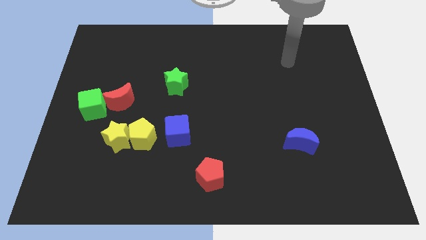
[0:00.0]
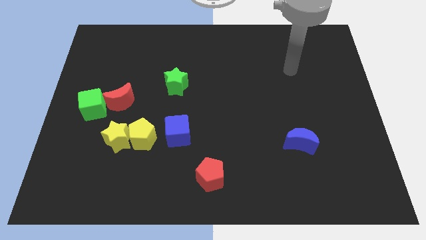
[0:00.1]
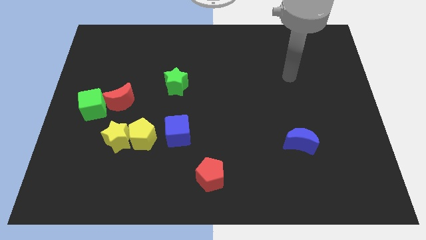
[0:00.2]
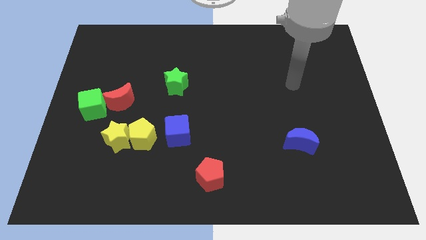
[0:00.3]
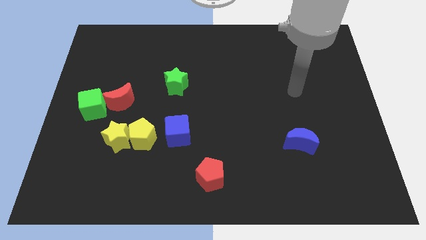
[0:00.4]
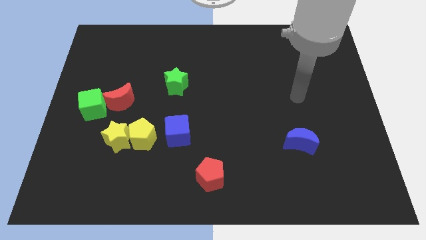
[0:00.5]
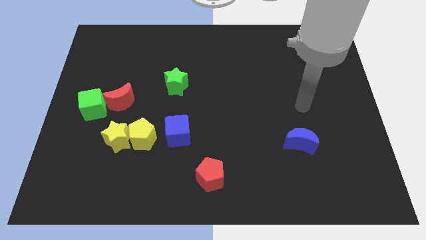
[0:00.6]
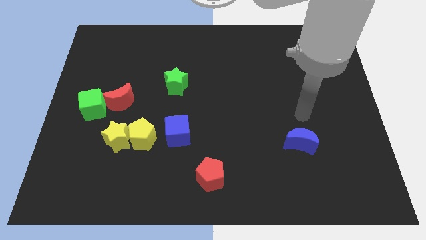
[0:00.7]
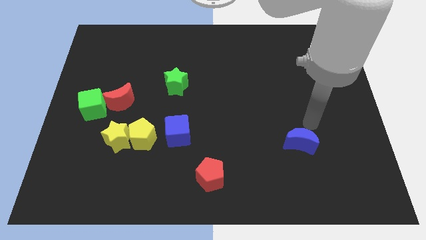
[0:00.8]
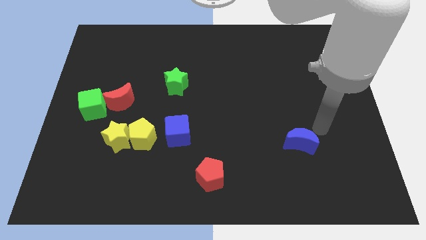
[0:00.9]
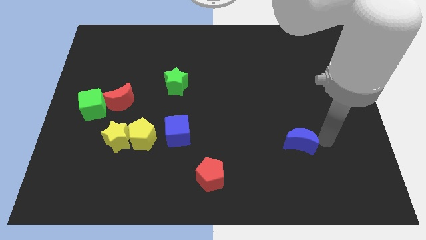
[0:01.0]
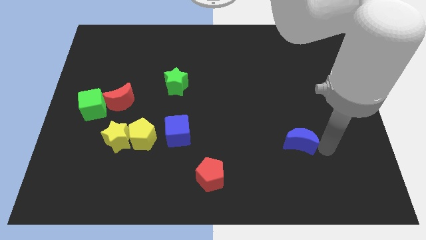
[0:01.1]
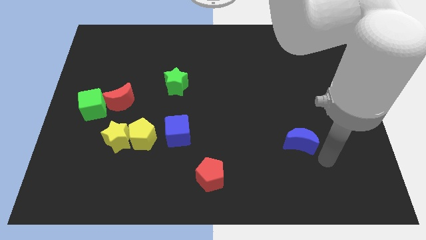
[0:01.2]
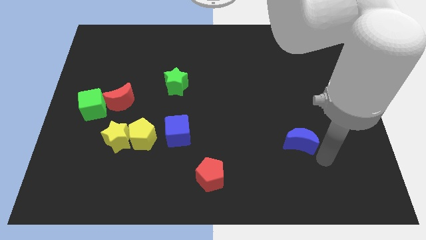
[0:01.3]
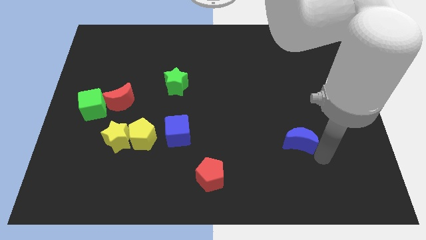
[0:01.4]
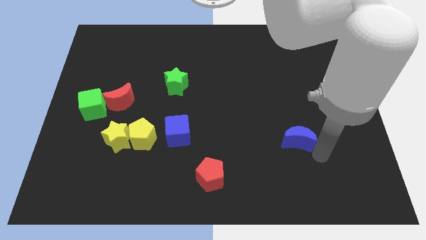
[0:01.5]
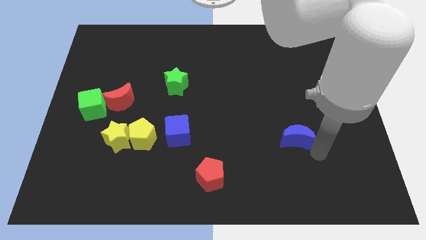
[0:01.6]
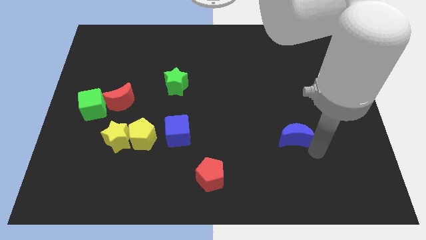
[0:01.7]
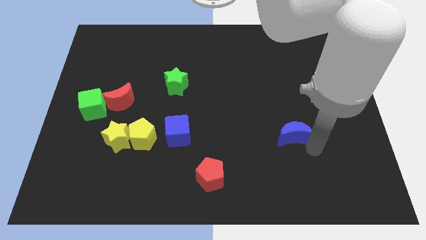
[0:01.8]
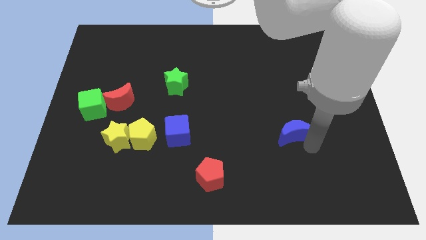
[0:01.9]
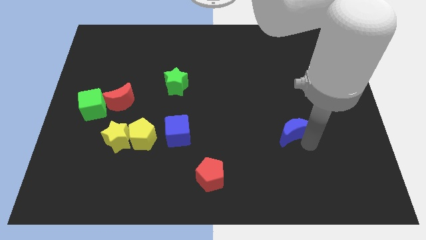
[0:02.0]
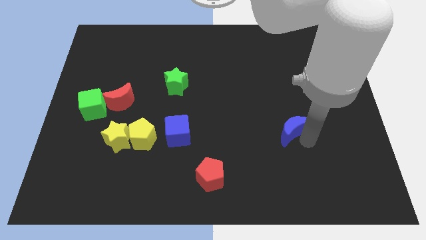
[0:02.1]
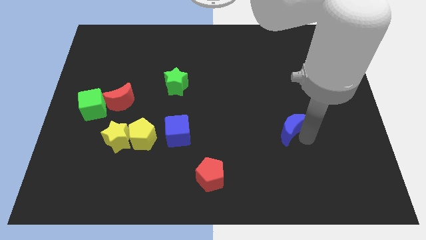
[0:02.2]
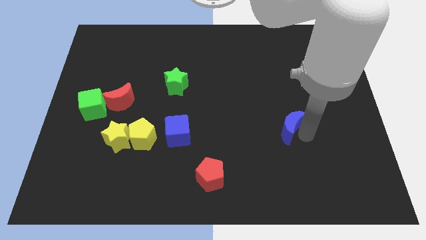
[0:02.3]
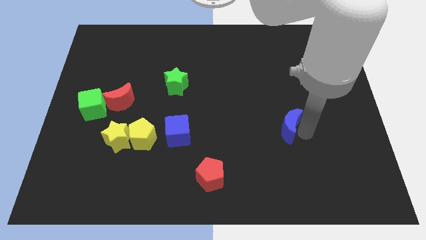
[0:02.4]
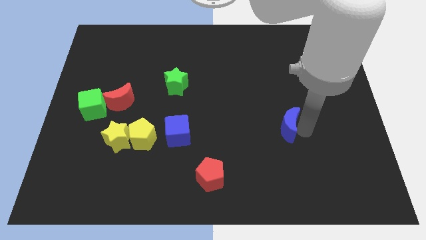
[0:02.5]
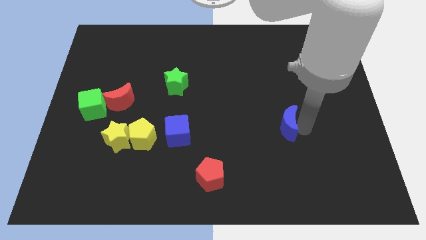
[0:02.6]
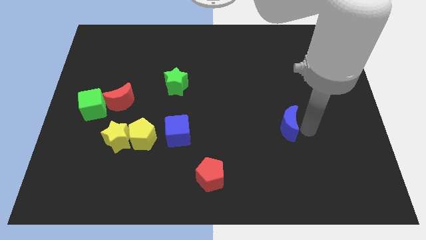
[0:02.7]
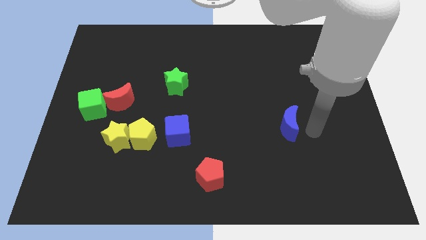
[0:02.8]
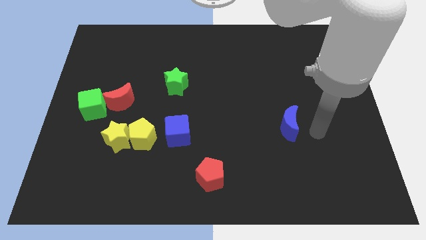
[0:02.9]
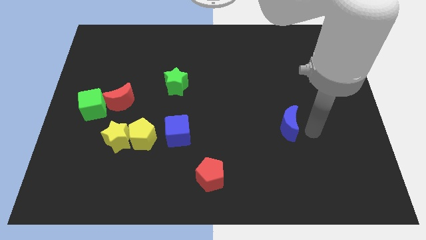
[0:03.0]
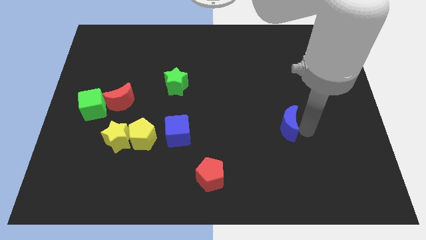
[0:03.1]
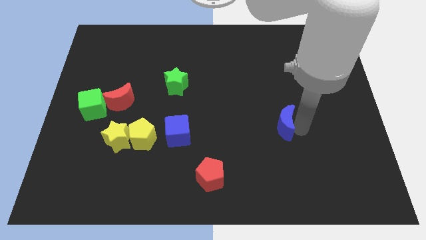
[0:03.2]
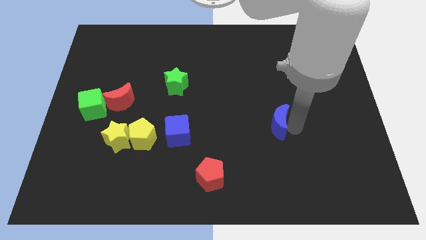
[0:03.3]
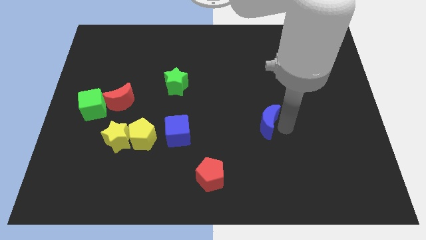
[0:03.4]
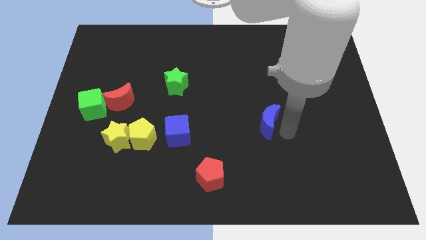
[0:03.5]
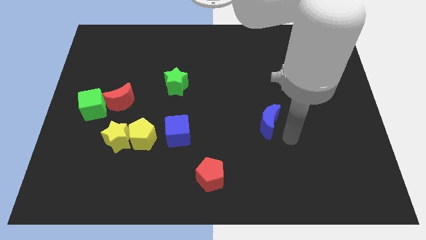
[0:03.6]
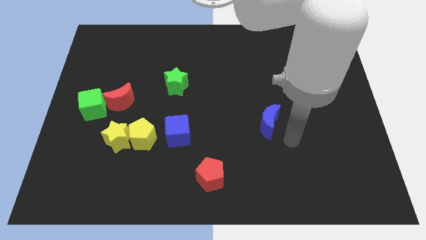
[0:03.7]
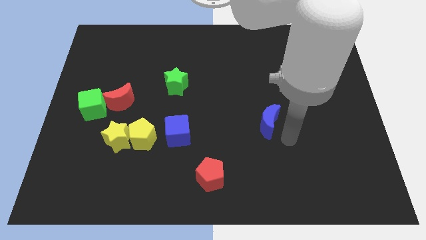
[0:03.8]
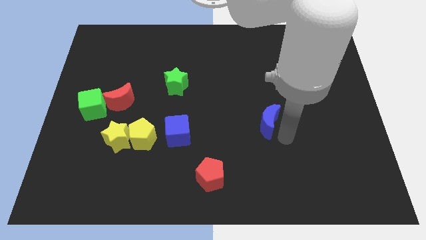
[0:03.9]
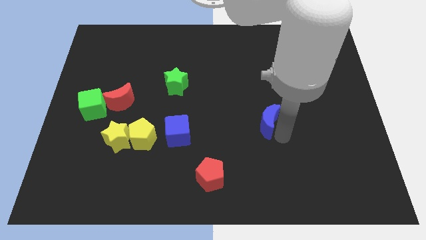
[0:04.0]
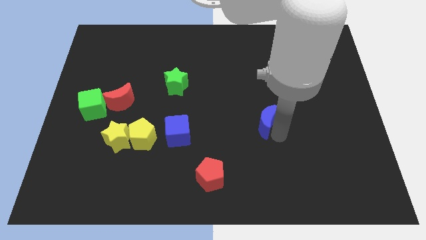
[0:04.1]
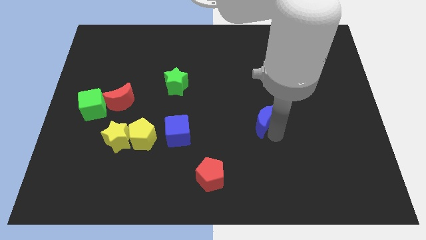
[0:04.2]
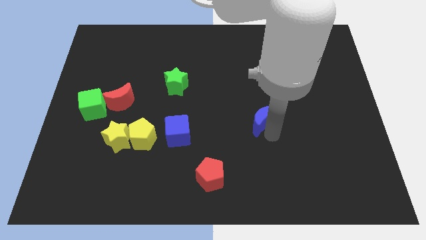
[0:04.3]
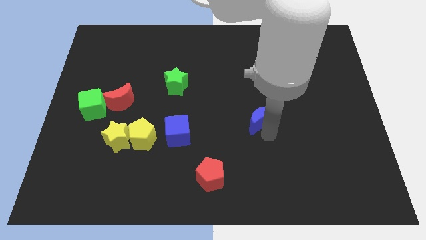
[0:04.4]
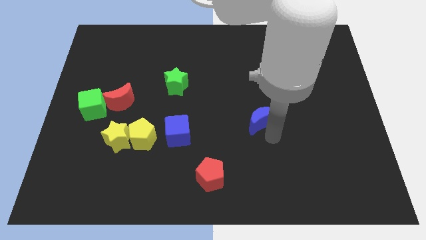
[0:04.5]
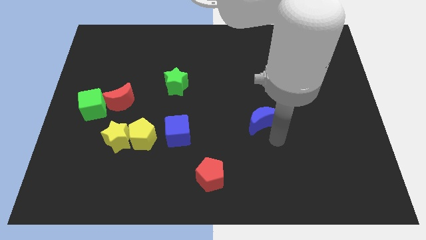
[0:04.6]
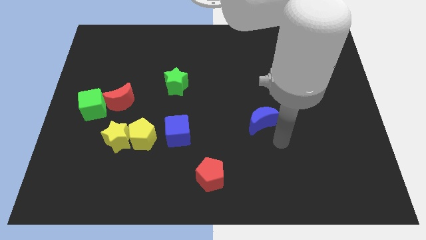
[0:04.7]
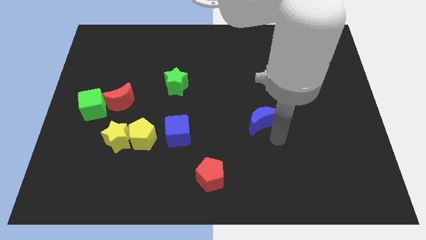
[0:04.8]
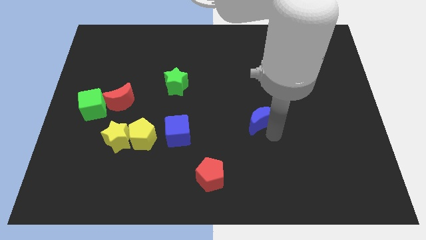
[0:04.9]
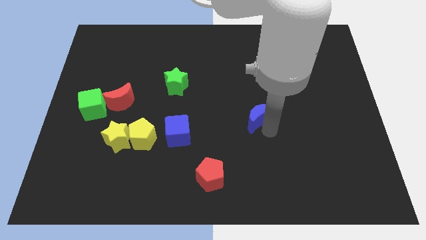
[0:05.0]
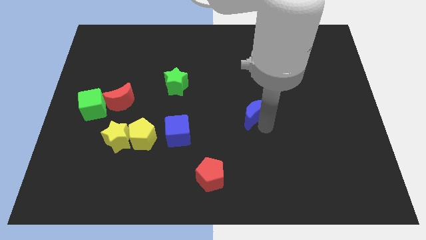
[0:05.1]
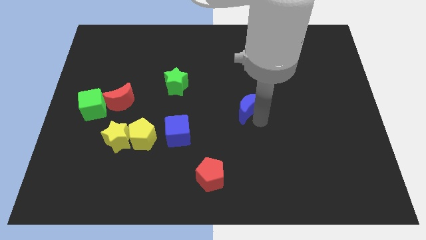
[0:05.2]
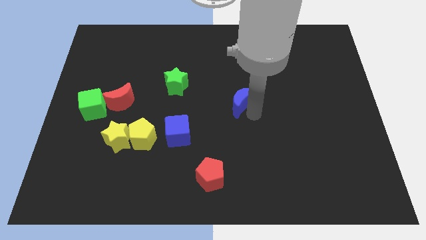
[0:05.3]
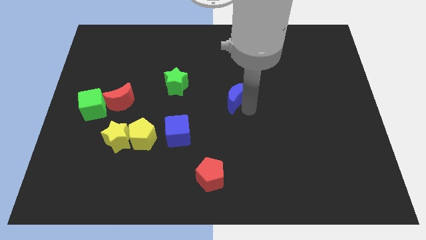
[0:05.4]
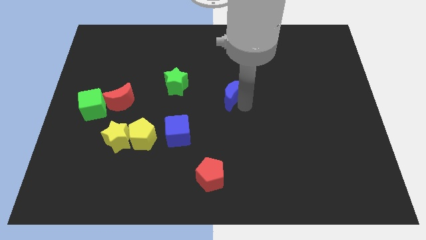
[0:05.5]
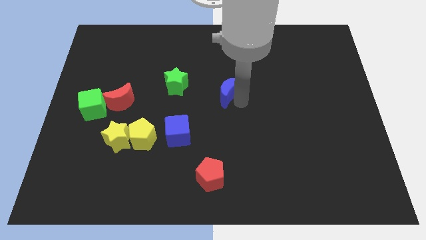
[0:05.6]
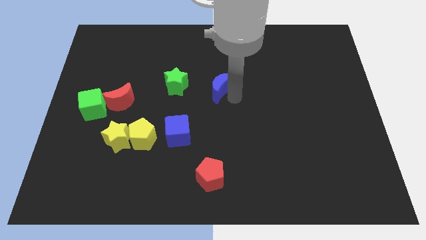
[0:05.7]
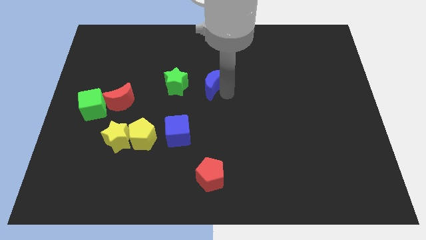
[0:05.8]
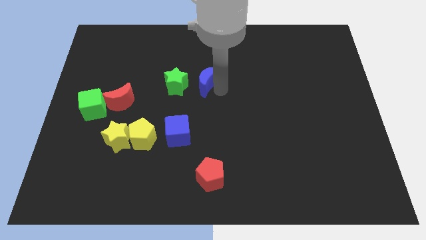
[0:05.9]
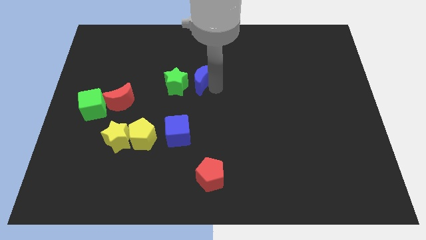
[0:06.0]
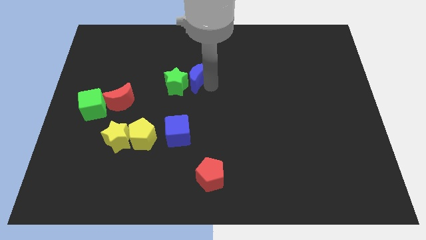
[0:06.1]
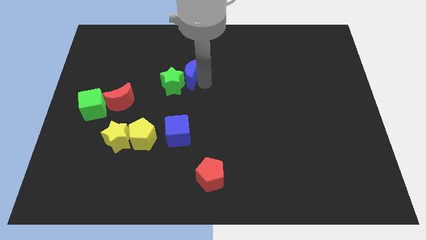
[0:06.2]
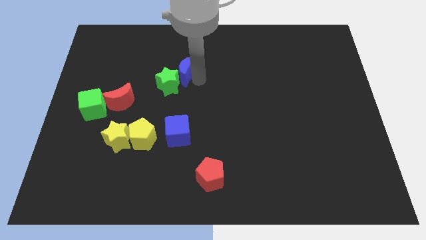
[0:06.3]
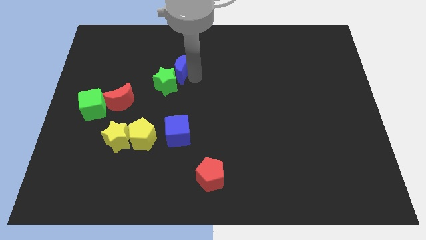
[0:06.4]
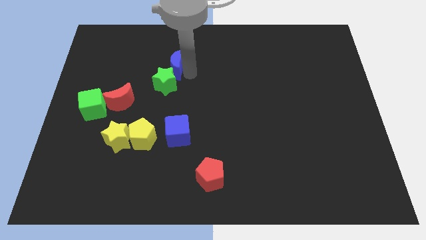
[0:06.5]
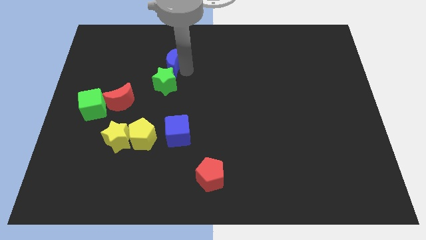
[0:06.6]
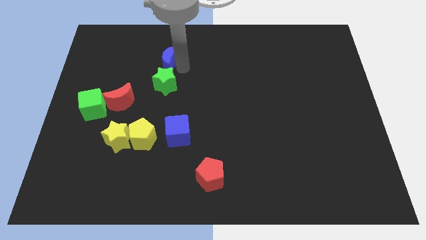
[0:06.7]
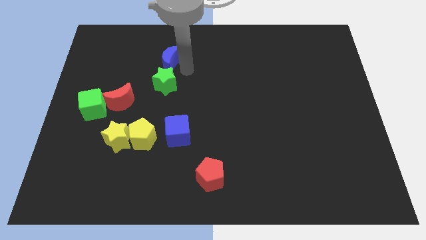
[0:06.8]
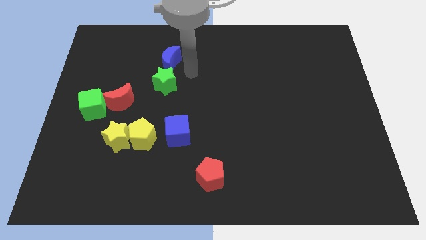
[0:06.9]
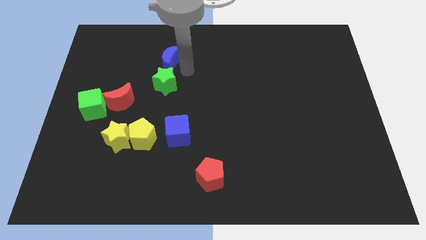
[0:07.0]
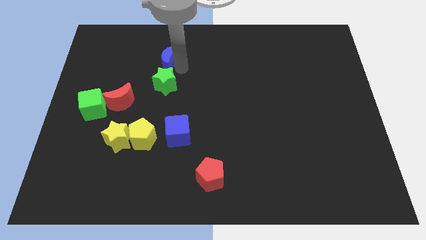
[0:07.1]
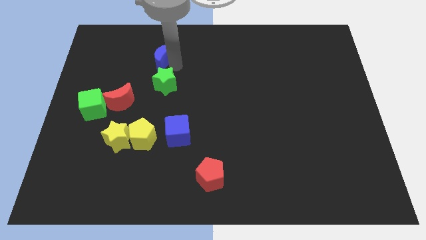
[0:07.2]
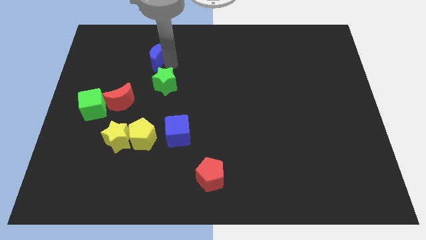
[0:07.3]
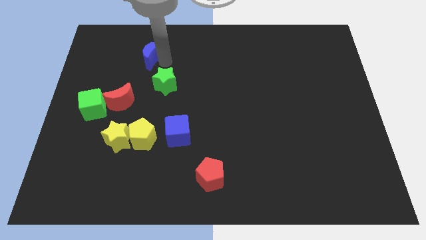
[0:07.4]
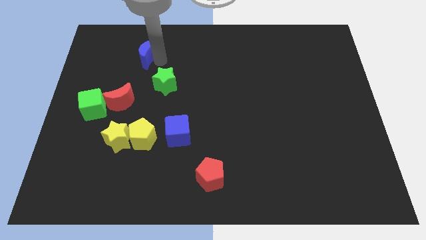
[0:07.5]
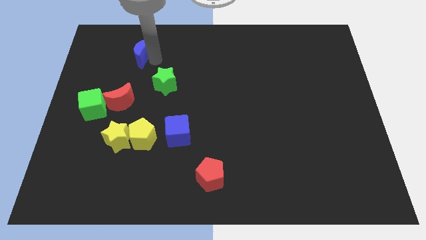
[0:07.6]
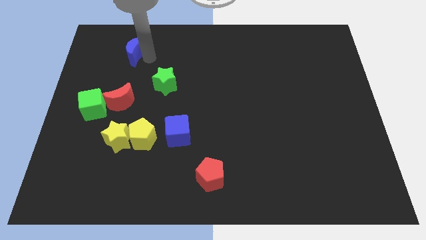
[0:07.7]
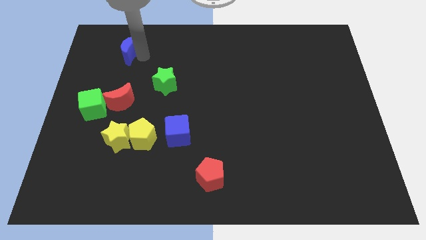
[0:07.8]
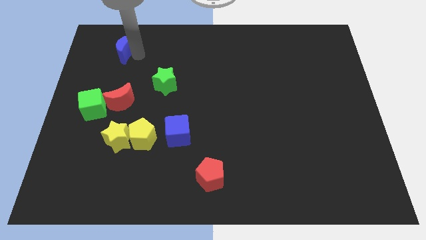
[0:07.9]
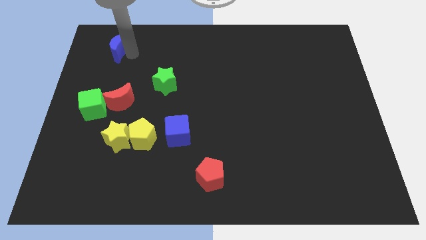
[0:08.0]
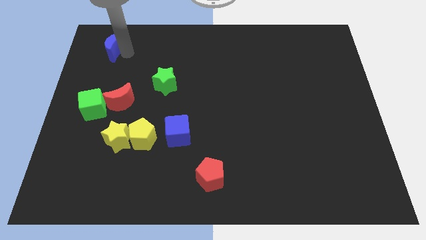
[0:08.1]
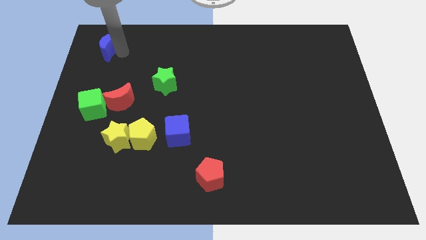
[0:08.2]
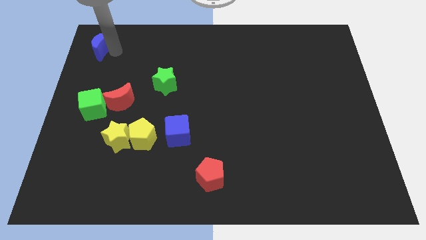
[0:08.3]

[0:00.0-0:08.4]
put the blue moon to the top left corner
